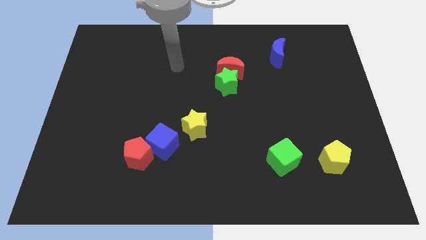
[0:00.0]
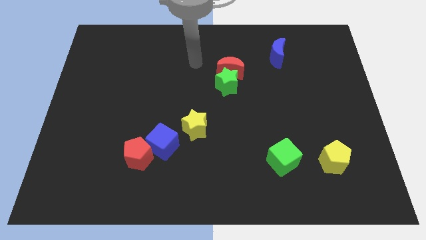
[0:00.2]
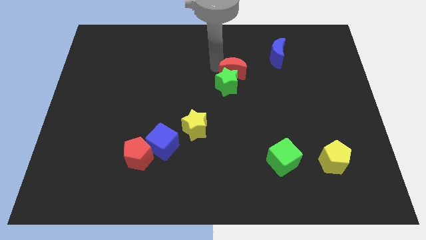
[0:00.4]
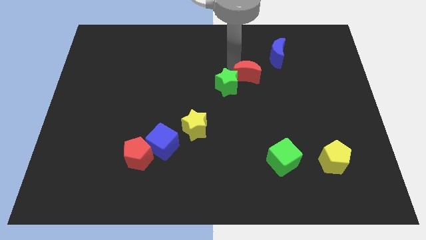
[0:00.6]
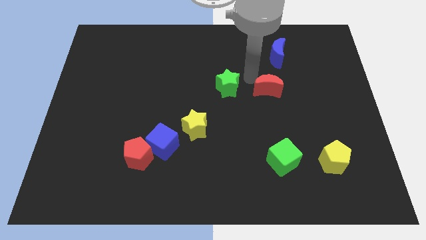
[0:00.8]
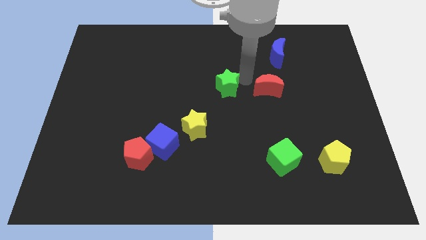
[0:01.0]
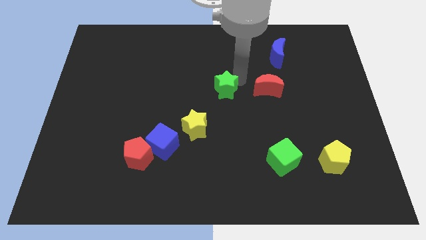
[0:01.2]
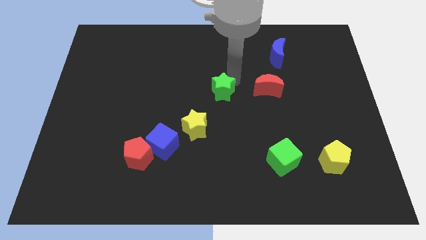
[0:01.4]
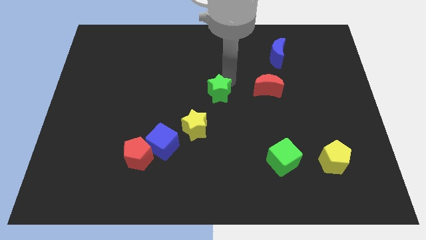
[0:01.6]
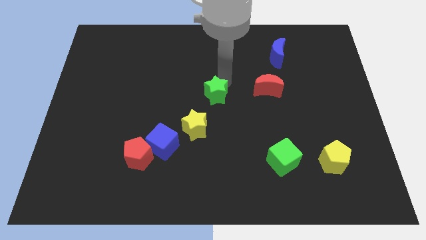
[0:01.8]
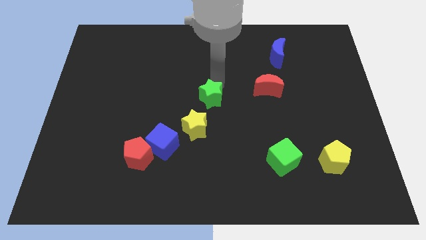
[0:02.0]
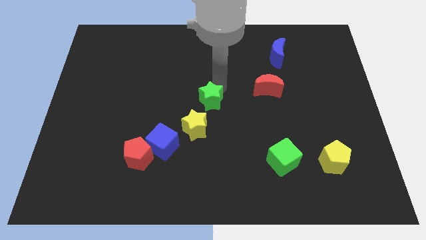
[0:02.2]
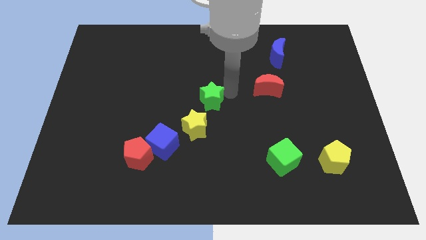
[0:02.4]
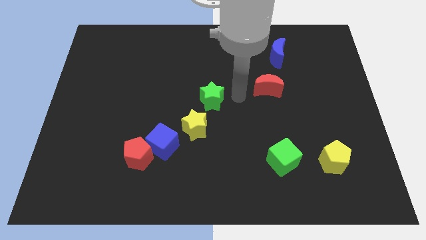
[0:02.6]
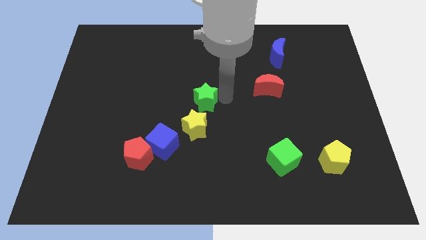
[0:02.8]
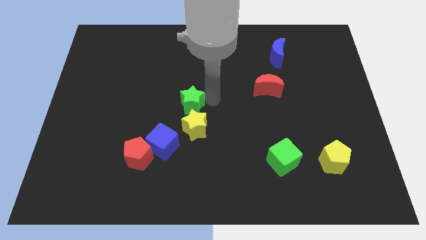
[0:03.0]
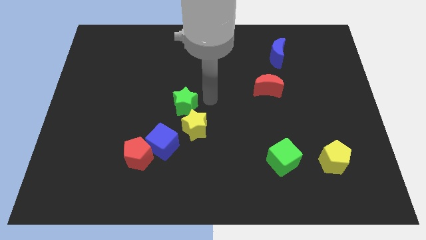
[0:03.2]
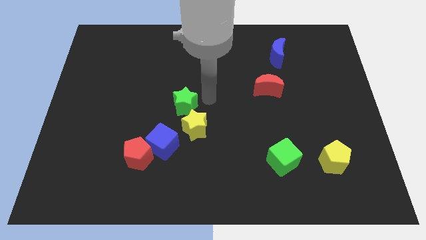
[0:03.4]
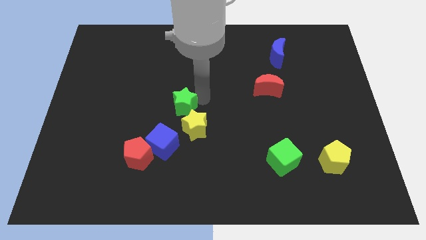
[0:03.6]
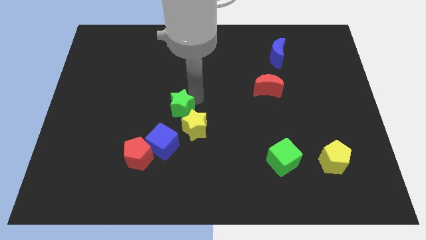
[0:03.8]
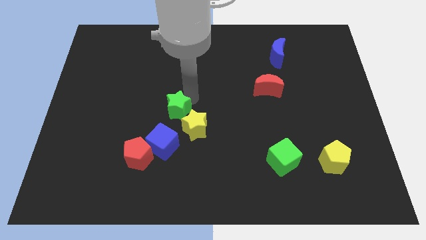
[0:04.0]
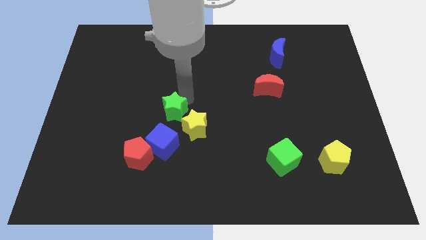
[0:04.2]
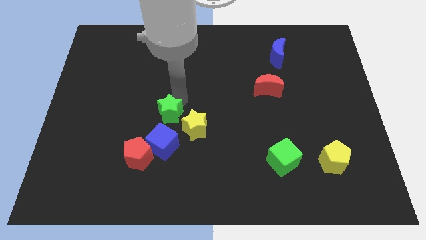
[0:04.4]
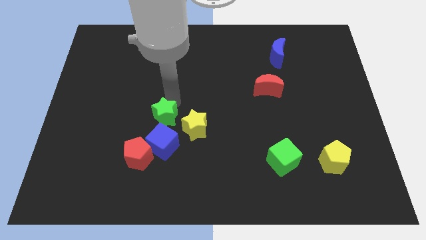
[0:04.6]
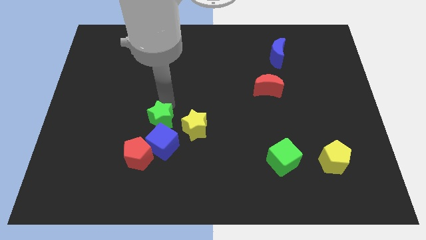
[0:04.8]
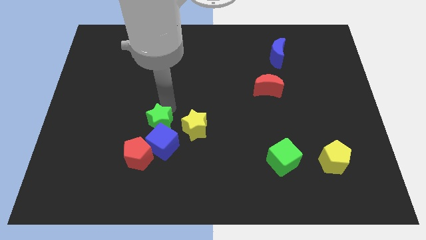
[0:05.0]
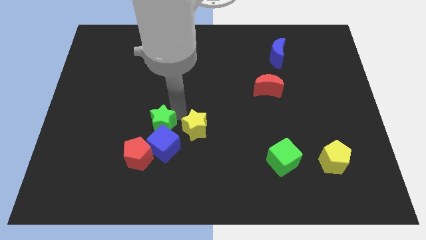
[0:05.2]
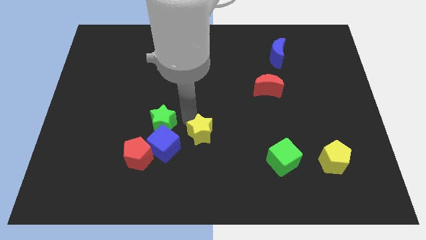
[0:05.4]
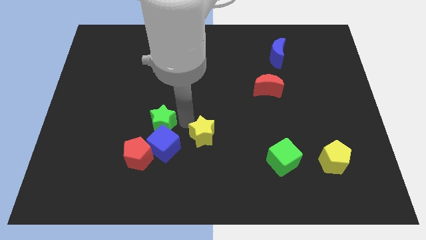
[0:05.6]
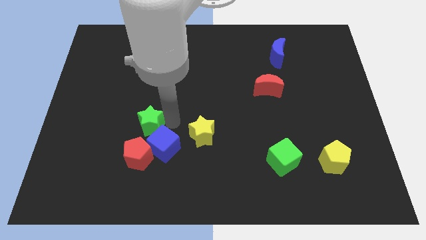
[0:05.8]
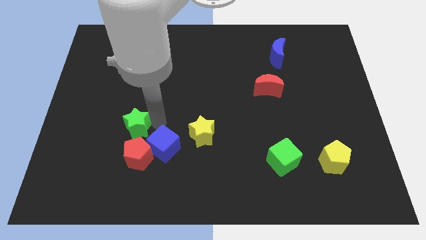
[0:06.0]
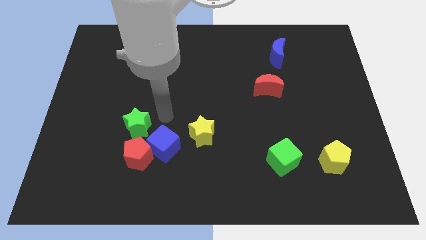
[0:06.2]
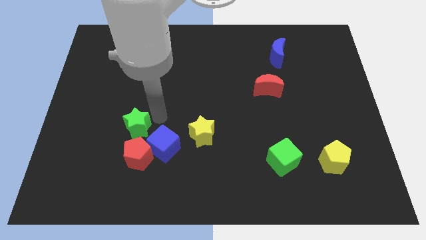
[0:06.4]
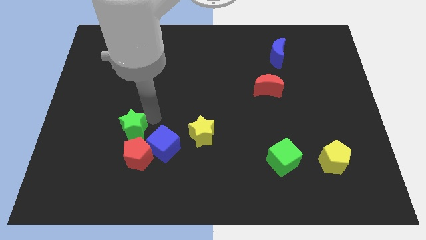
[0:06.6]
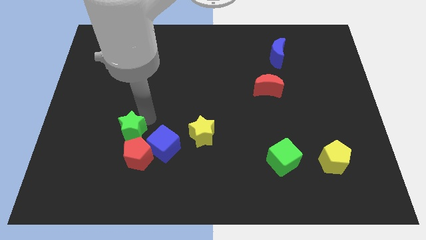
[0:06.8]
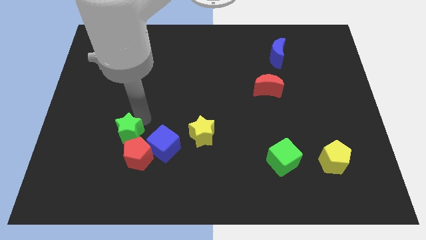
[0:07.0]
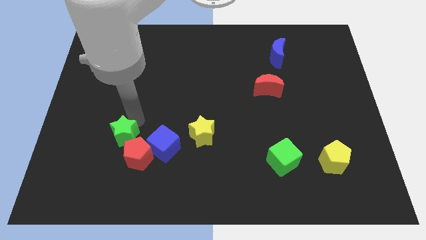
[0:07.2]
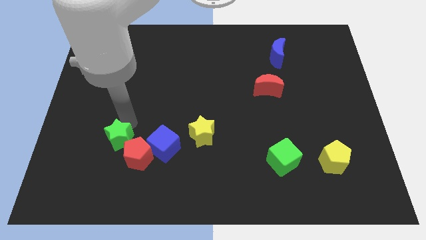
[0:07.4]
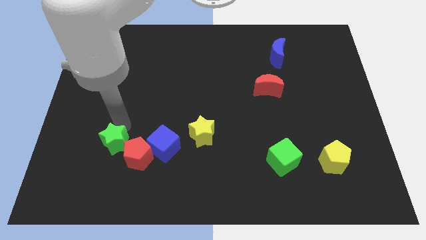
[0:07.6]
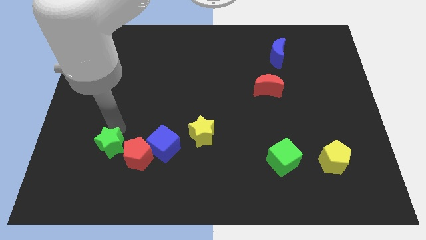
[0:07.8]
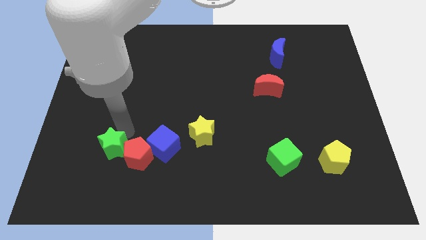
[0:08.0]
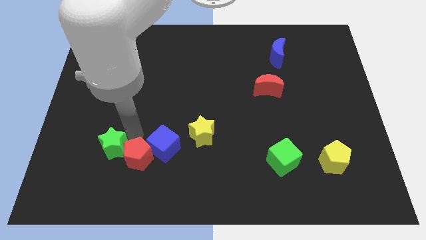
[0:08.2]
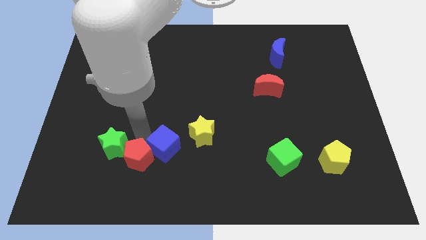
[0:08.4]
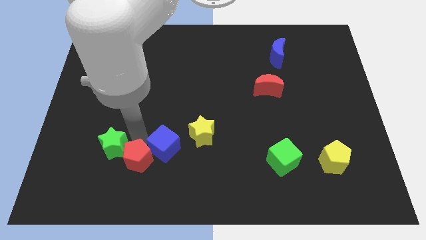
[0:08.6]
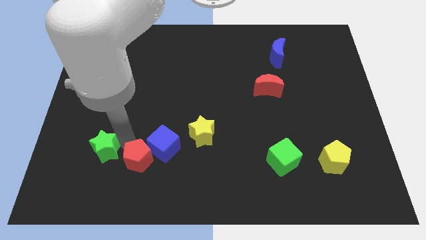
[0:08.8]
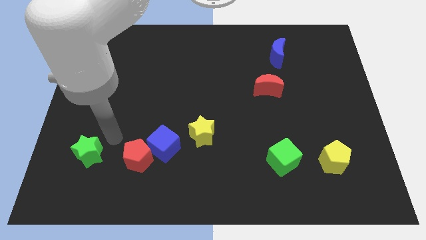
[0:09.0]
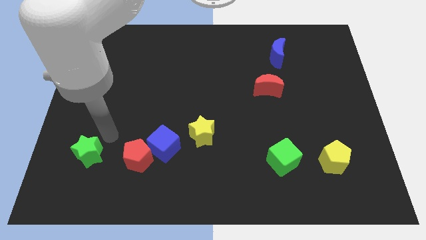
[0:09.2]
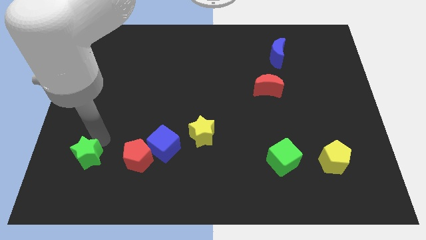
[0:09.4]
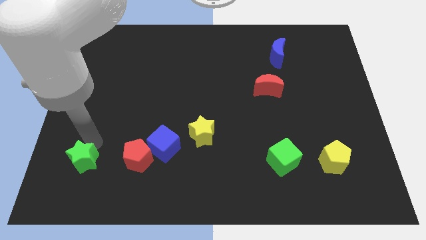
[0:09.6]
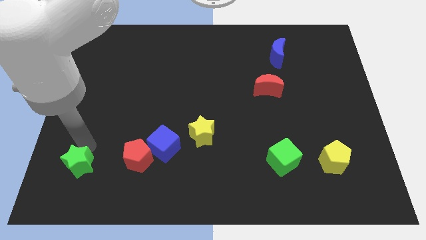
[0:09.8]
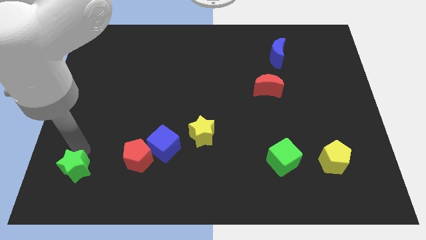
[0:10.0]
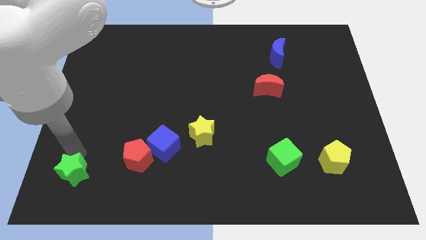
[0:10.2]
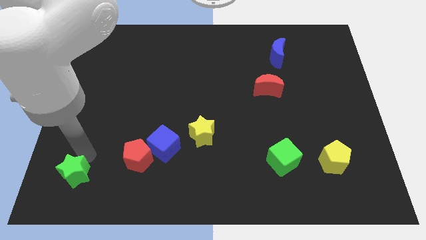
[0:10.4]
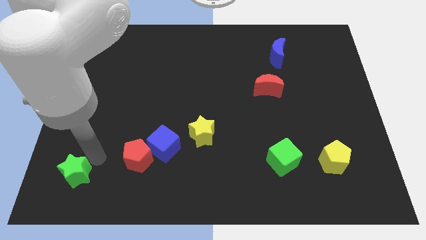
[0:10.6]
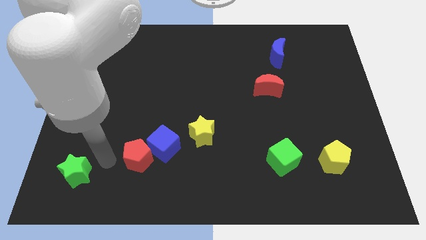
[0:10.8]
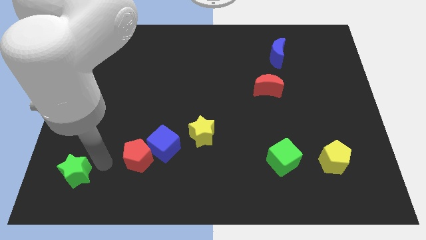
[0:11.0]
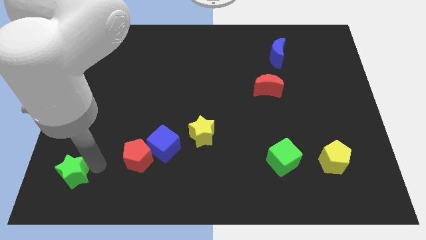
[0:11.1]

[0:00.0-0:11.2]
push the green star to the lower left corner

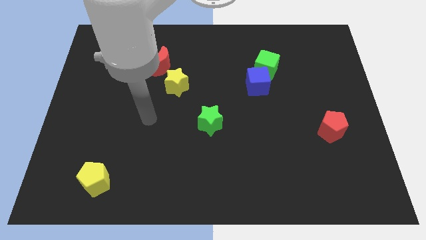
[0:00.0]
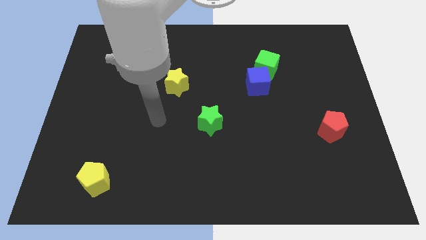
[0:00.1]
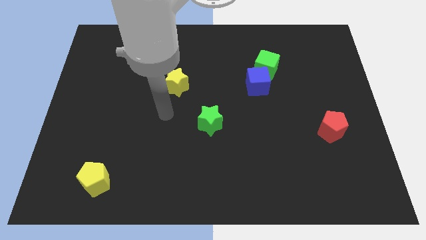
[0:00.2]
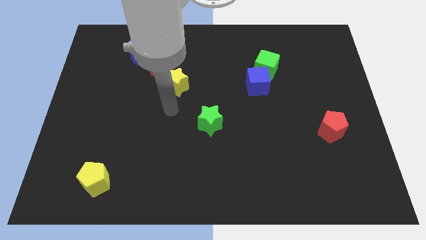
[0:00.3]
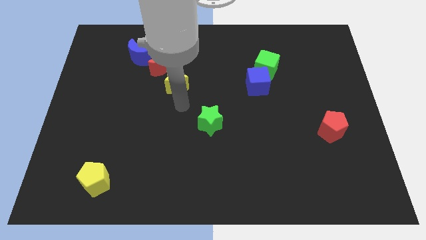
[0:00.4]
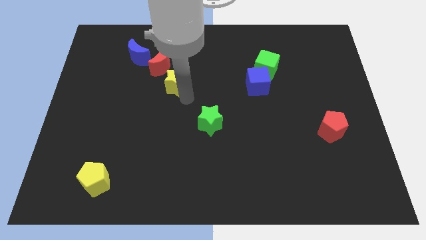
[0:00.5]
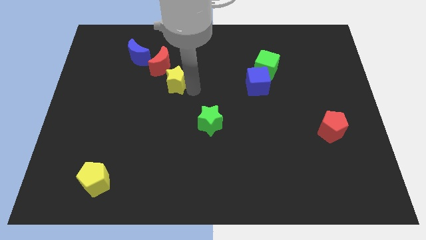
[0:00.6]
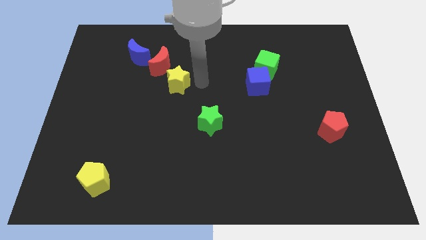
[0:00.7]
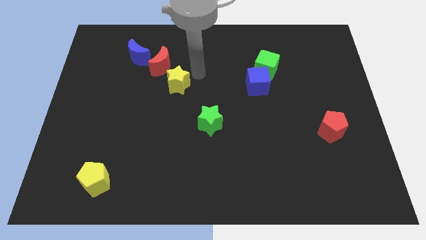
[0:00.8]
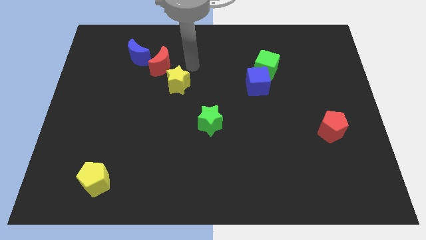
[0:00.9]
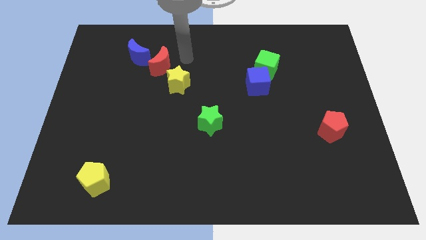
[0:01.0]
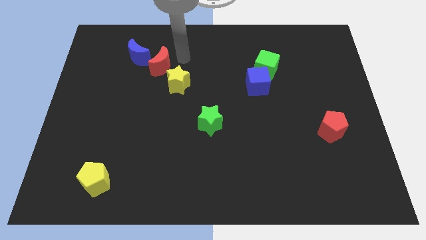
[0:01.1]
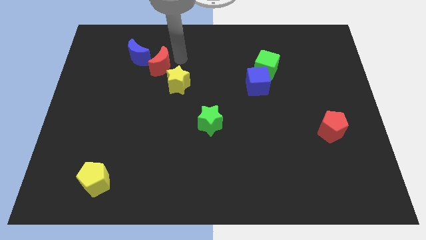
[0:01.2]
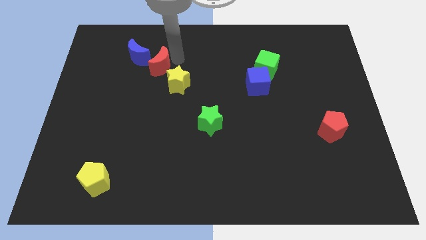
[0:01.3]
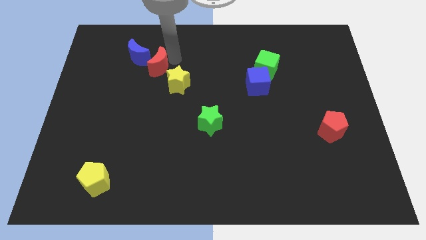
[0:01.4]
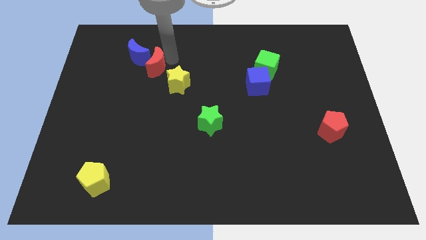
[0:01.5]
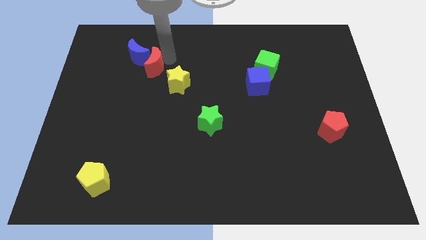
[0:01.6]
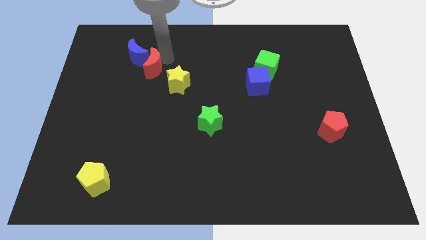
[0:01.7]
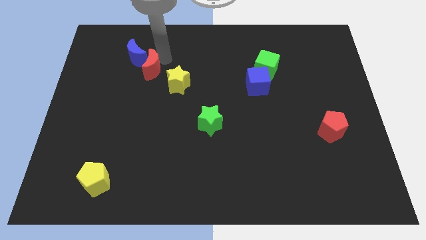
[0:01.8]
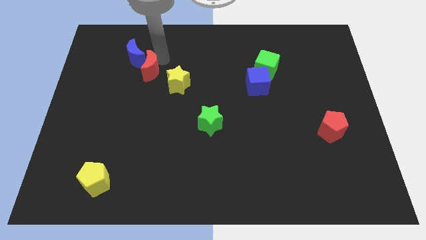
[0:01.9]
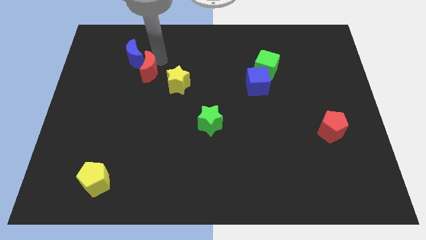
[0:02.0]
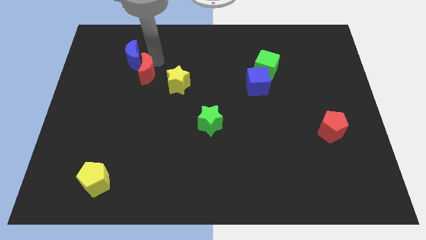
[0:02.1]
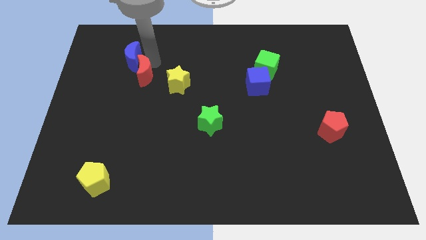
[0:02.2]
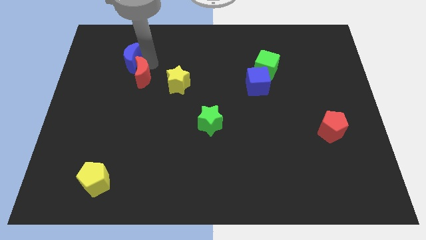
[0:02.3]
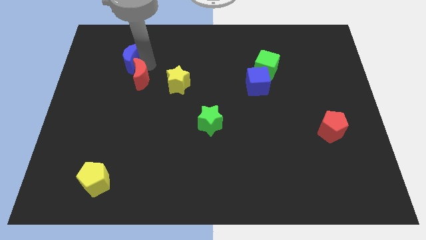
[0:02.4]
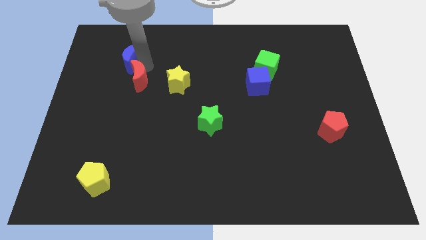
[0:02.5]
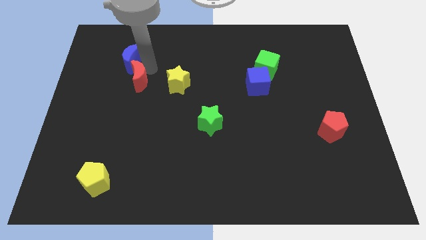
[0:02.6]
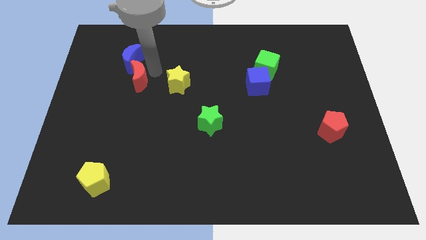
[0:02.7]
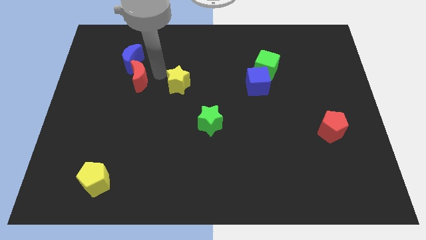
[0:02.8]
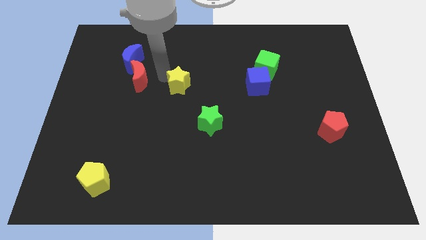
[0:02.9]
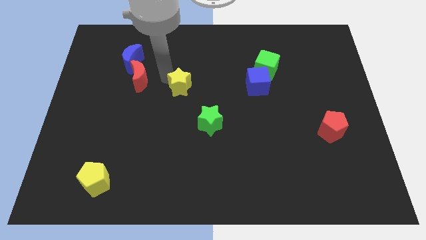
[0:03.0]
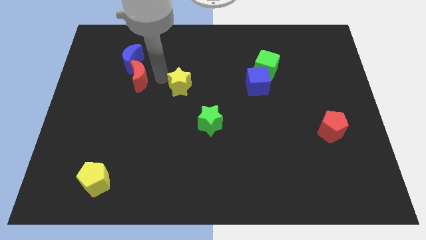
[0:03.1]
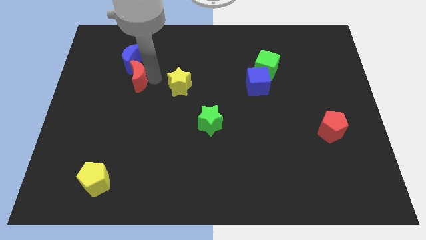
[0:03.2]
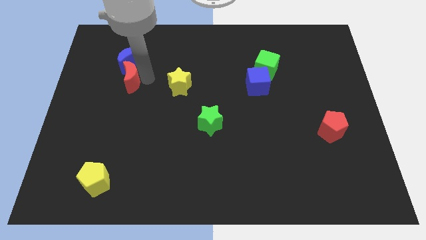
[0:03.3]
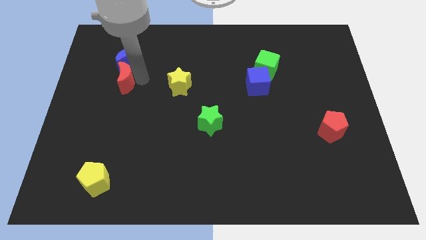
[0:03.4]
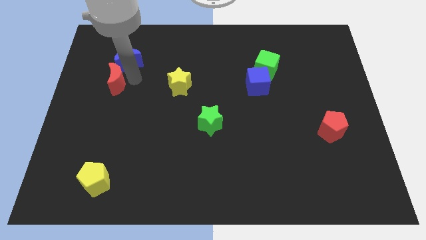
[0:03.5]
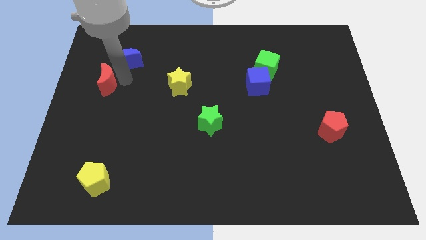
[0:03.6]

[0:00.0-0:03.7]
slide the red moon to the left side of the board
